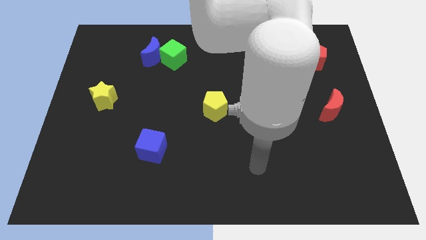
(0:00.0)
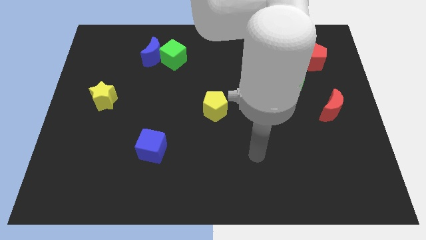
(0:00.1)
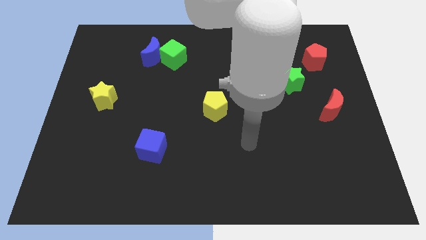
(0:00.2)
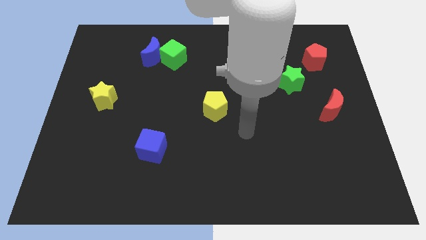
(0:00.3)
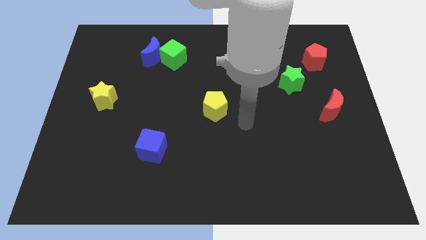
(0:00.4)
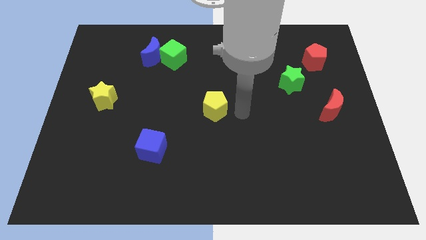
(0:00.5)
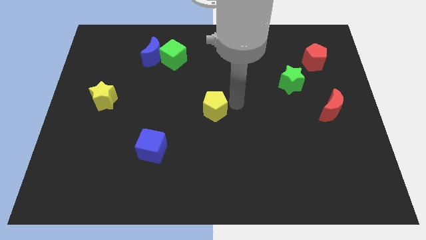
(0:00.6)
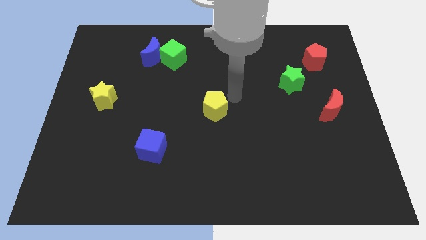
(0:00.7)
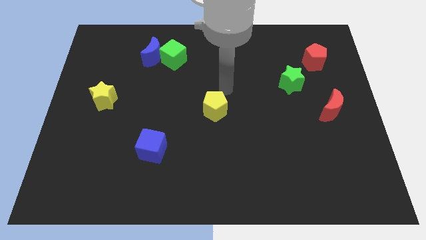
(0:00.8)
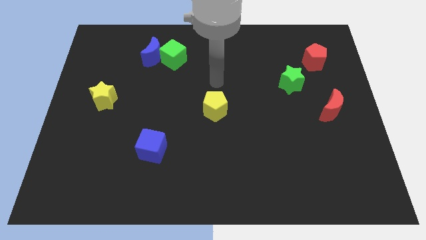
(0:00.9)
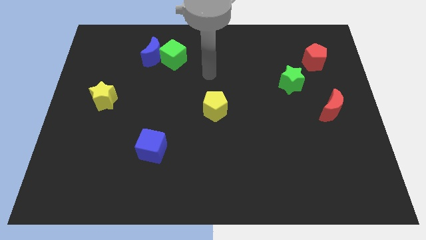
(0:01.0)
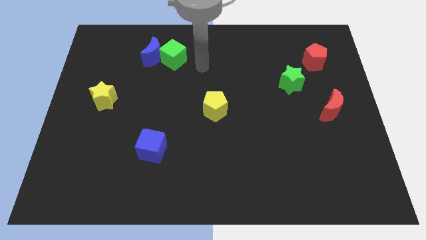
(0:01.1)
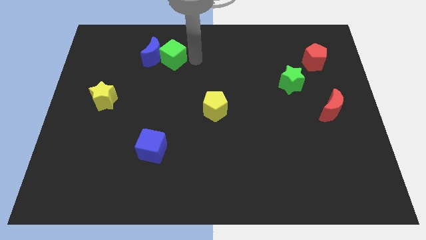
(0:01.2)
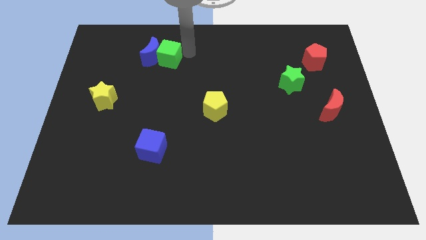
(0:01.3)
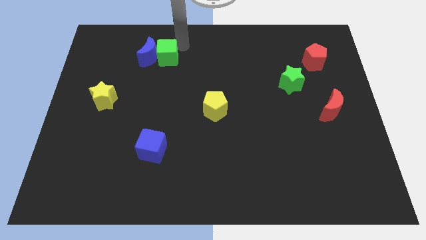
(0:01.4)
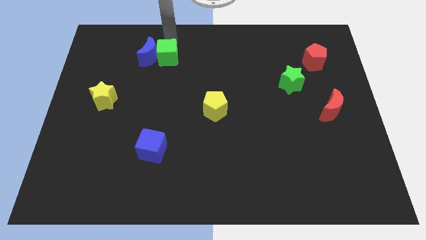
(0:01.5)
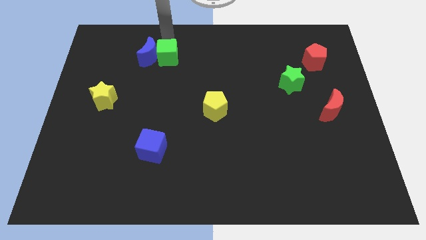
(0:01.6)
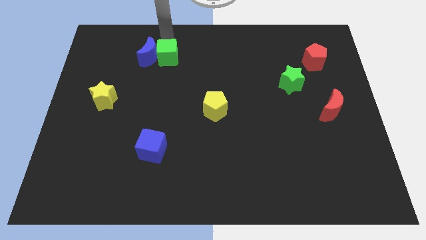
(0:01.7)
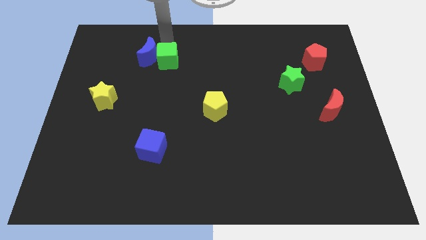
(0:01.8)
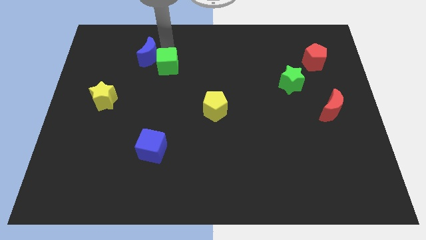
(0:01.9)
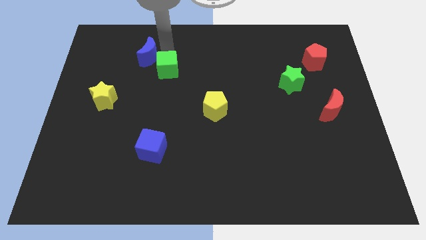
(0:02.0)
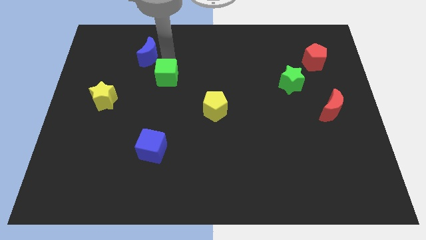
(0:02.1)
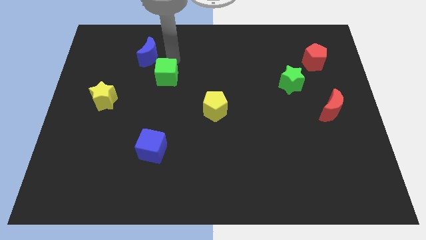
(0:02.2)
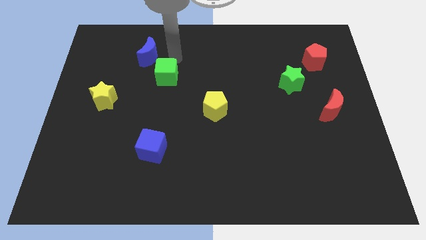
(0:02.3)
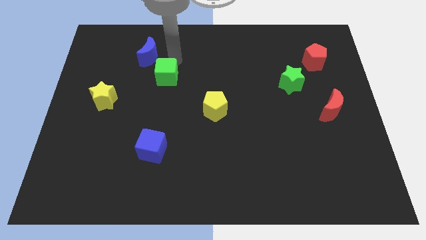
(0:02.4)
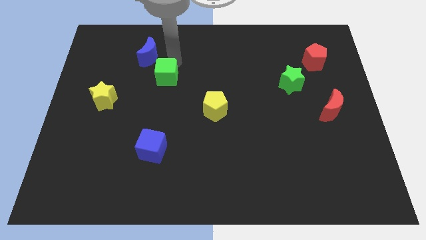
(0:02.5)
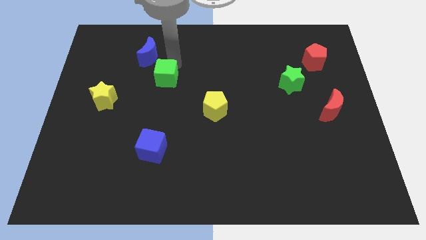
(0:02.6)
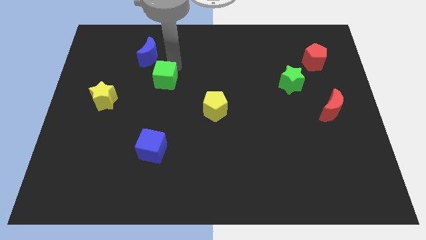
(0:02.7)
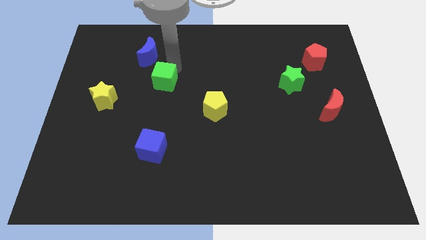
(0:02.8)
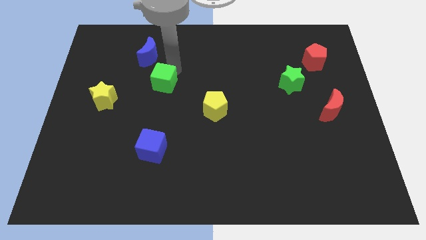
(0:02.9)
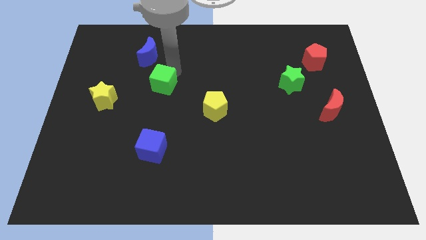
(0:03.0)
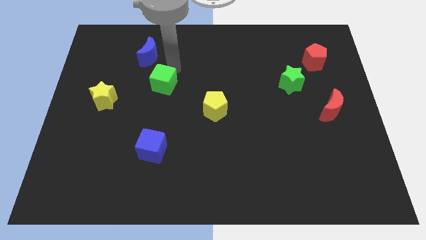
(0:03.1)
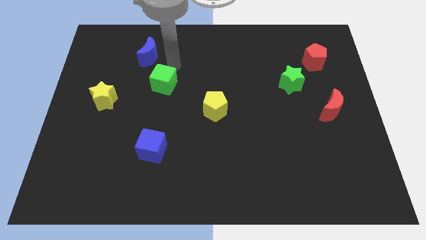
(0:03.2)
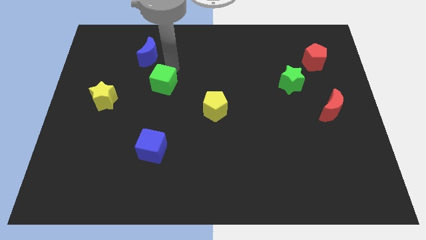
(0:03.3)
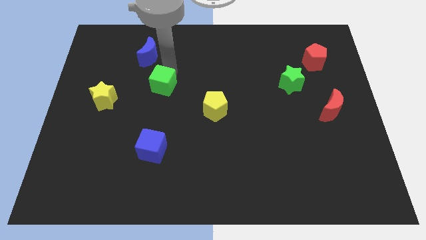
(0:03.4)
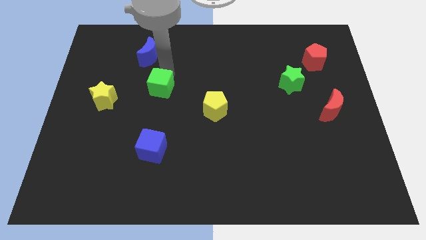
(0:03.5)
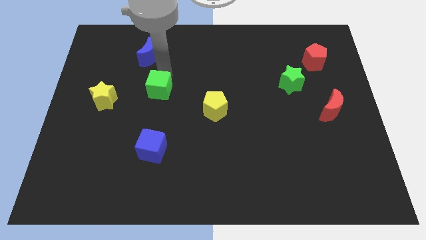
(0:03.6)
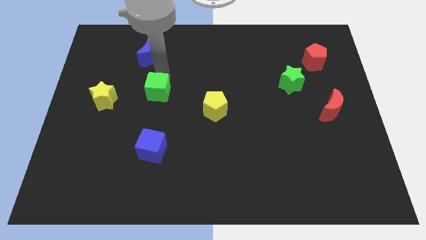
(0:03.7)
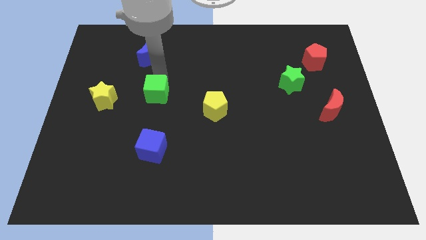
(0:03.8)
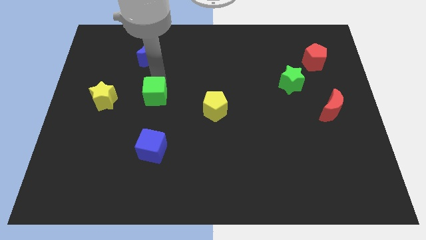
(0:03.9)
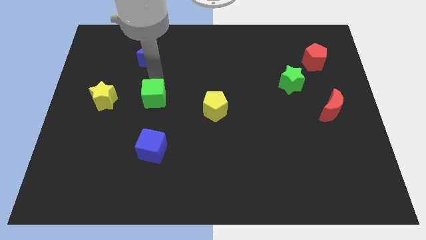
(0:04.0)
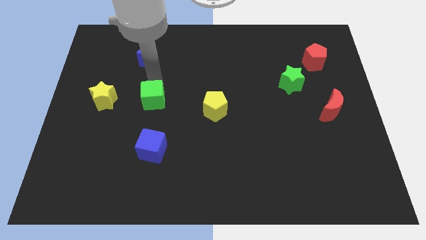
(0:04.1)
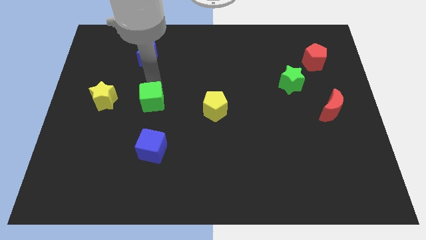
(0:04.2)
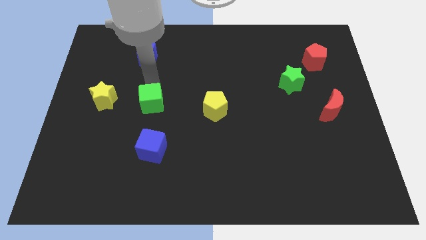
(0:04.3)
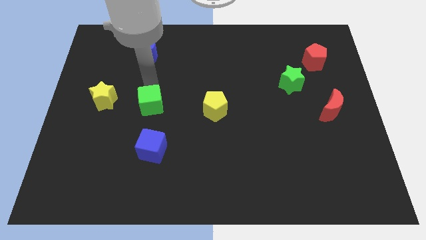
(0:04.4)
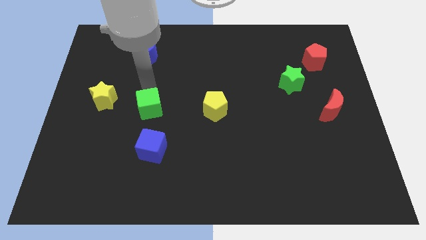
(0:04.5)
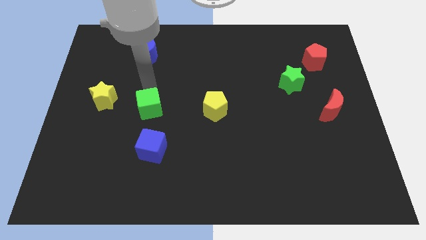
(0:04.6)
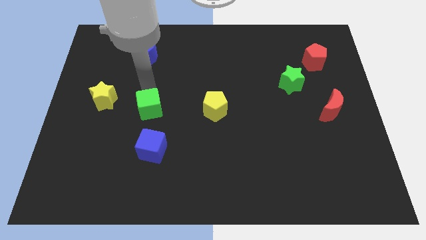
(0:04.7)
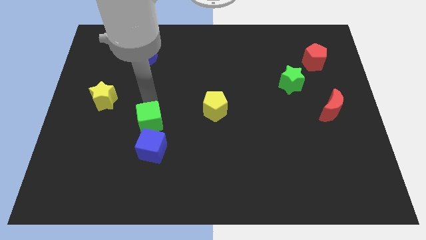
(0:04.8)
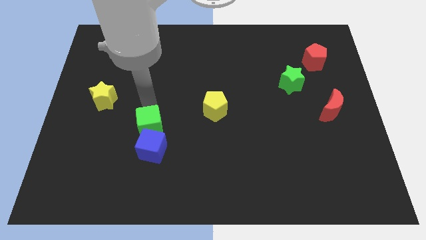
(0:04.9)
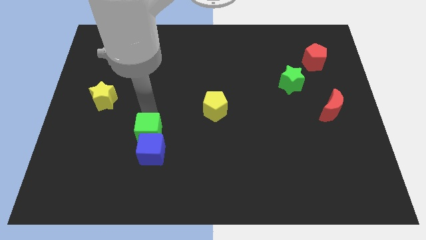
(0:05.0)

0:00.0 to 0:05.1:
put the green cube close to the blue cube

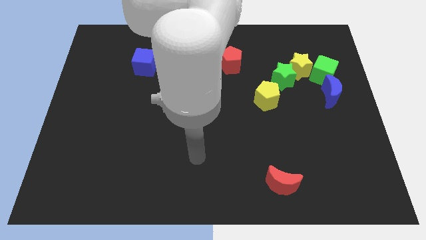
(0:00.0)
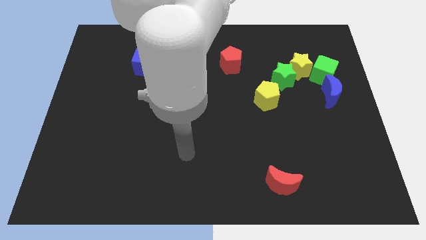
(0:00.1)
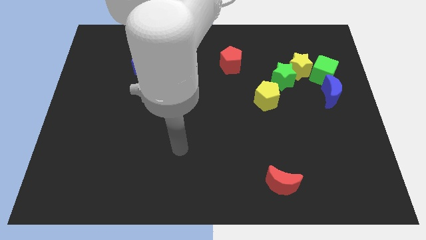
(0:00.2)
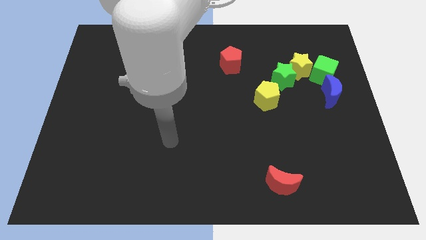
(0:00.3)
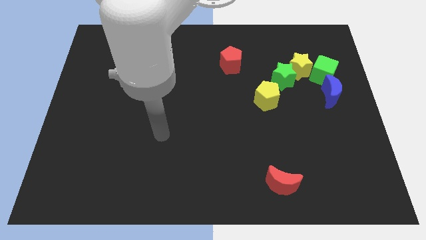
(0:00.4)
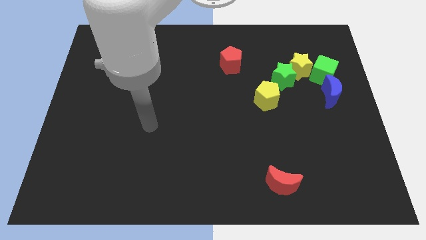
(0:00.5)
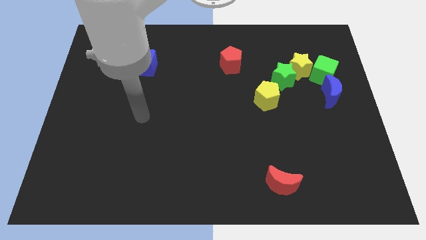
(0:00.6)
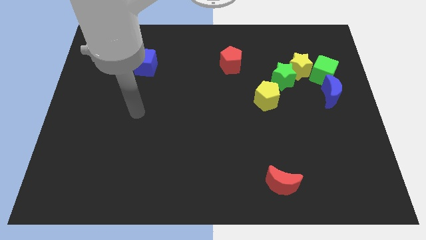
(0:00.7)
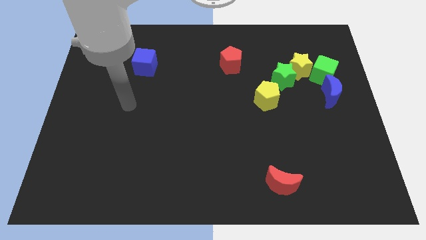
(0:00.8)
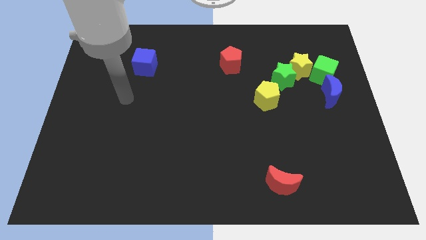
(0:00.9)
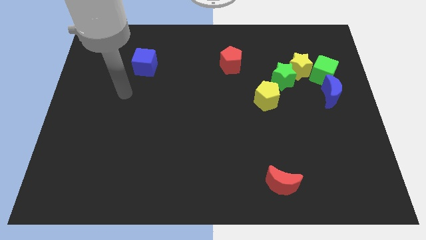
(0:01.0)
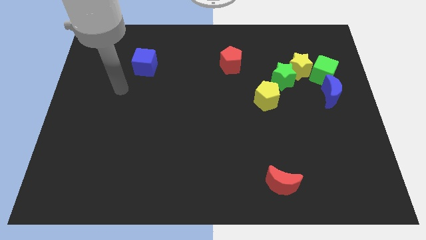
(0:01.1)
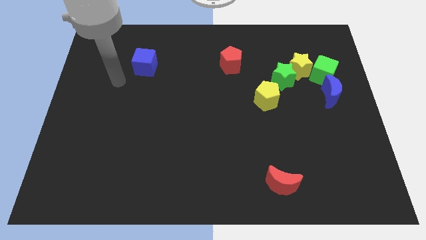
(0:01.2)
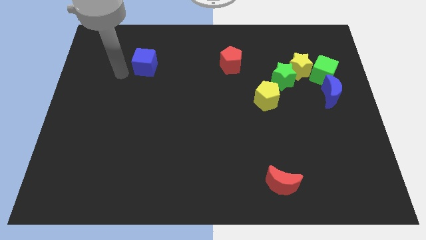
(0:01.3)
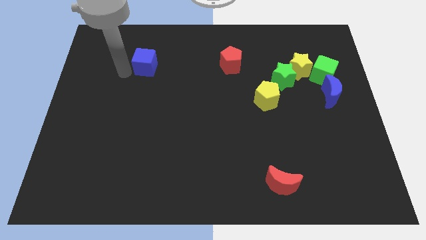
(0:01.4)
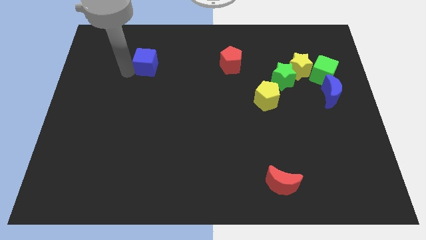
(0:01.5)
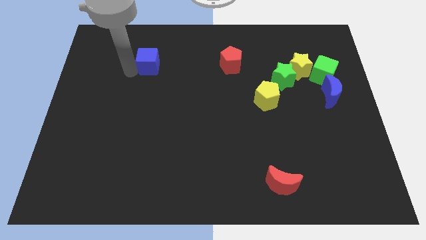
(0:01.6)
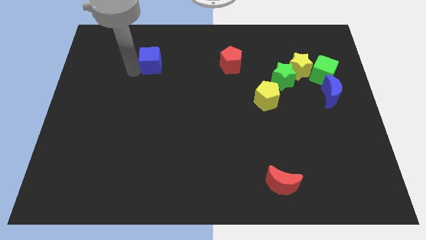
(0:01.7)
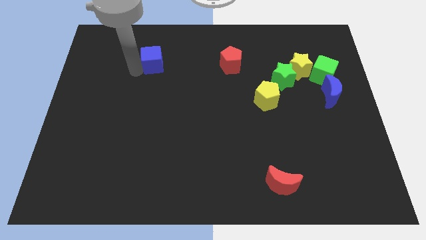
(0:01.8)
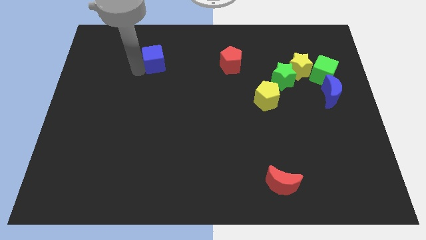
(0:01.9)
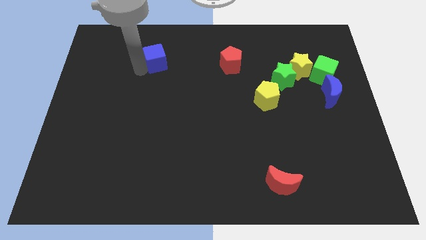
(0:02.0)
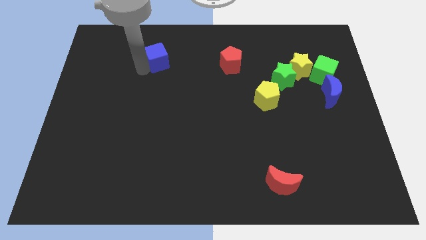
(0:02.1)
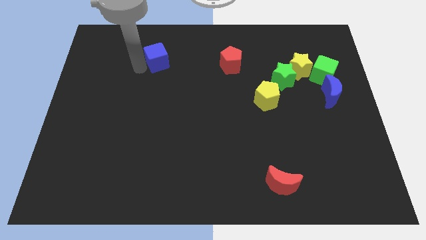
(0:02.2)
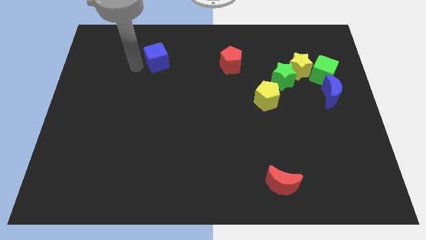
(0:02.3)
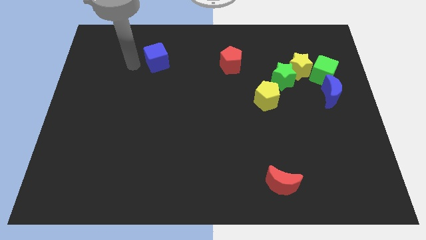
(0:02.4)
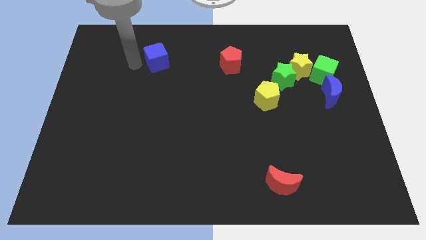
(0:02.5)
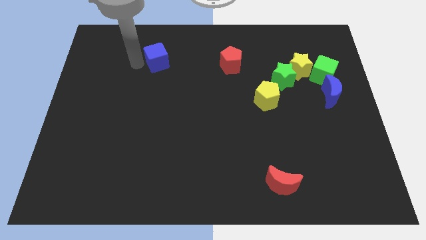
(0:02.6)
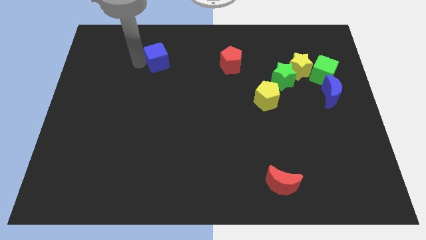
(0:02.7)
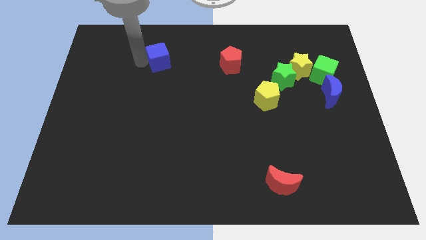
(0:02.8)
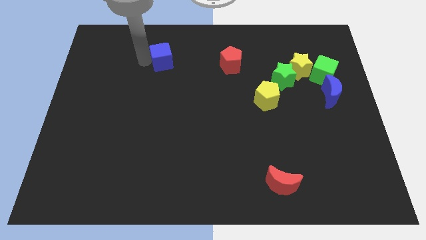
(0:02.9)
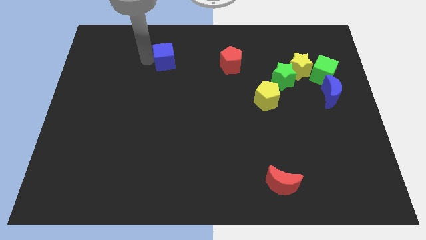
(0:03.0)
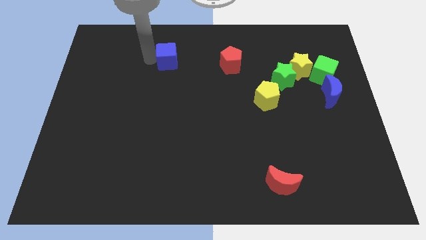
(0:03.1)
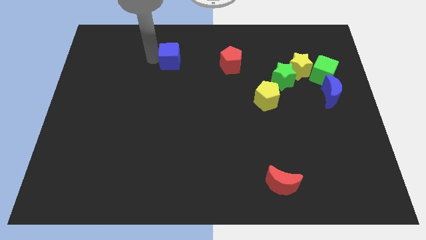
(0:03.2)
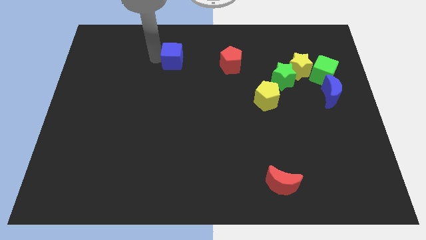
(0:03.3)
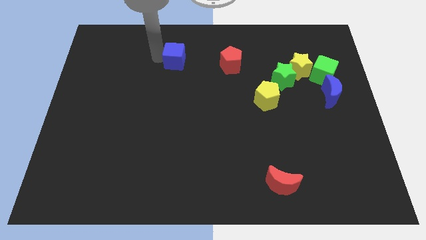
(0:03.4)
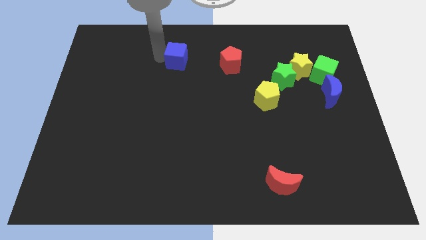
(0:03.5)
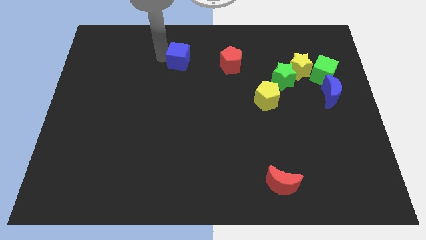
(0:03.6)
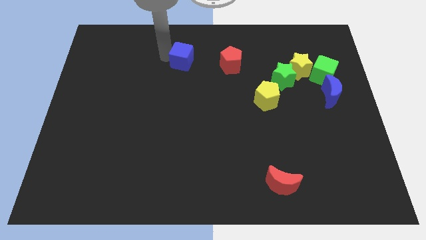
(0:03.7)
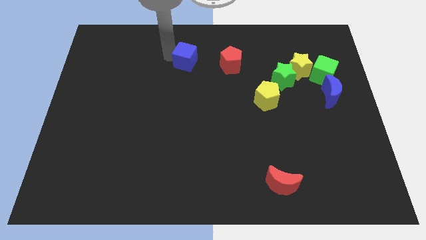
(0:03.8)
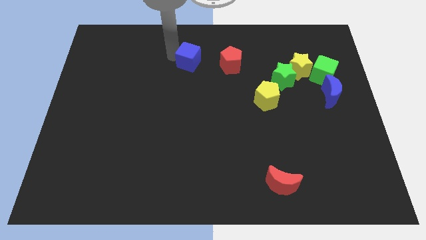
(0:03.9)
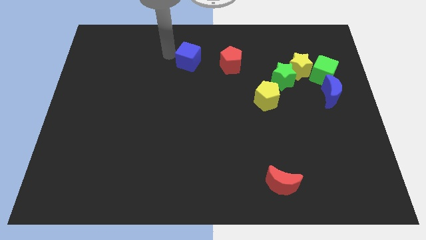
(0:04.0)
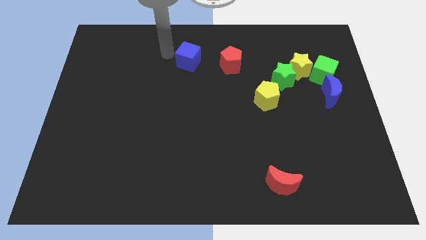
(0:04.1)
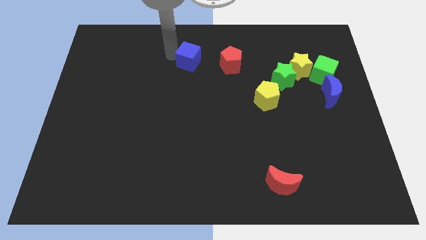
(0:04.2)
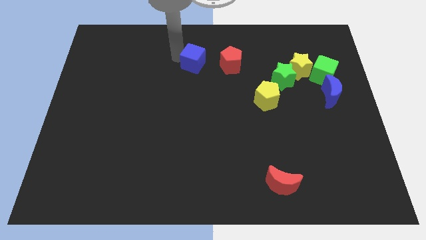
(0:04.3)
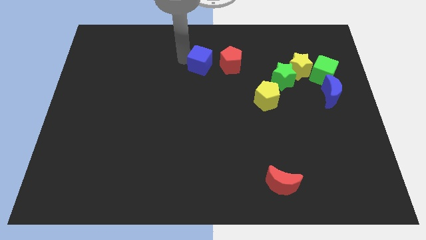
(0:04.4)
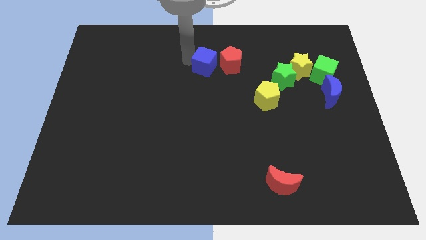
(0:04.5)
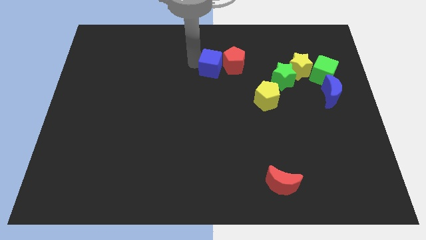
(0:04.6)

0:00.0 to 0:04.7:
slide the blue cube towards the red pentagon
